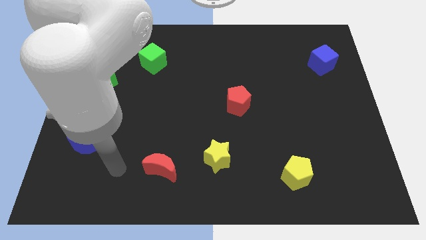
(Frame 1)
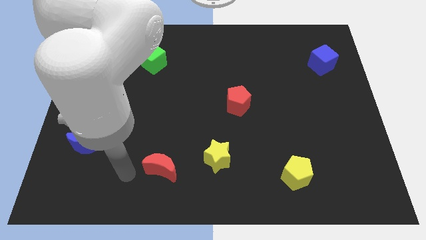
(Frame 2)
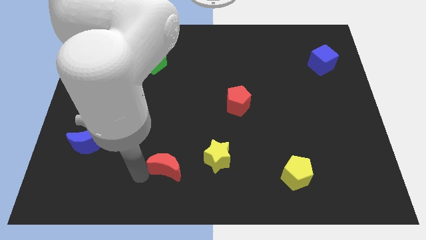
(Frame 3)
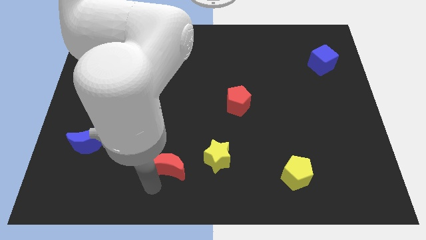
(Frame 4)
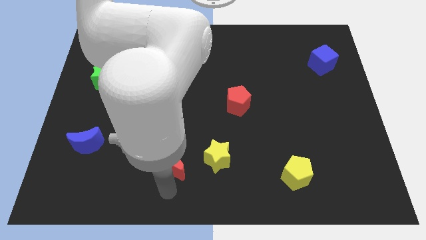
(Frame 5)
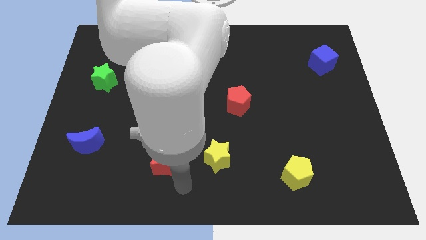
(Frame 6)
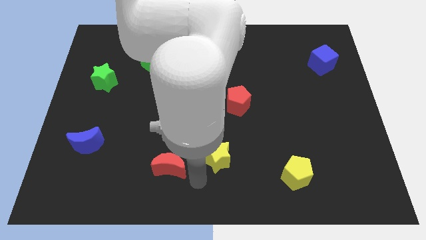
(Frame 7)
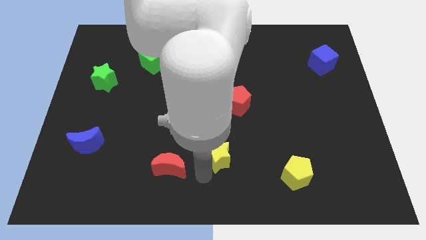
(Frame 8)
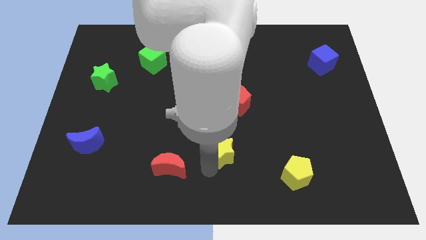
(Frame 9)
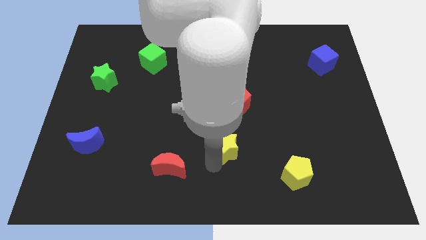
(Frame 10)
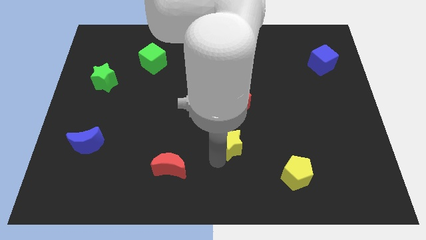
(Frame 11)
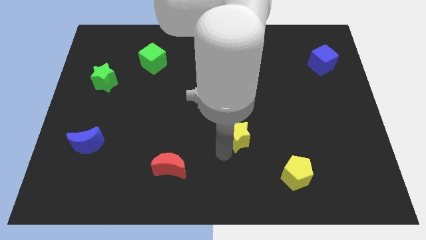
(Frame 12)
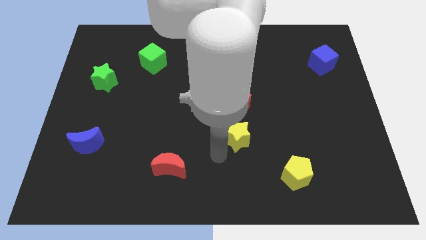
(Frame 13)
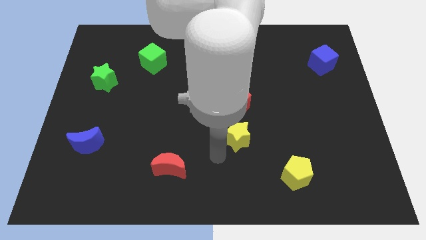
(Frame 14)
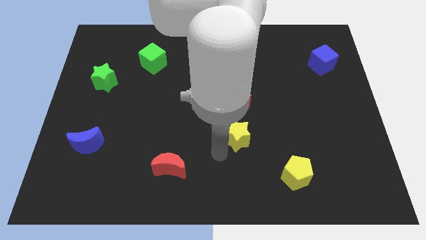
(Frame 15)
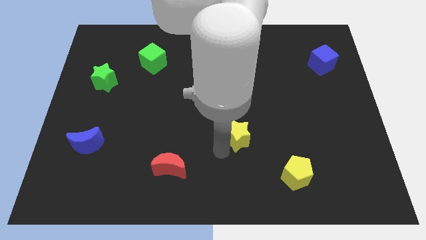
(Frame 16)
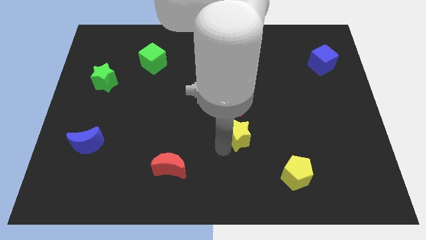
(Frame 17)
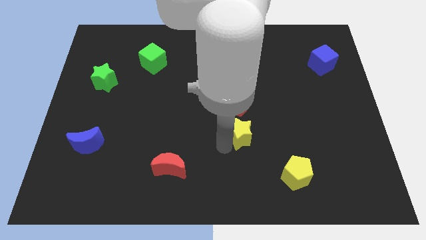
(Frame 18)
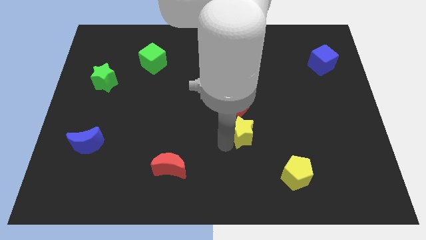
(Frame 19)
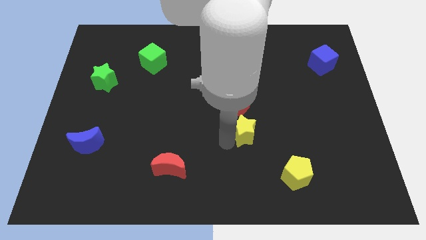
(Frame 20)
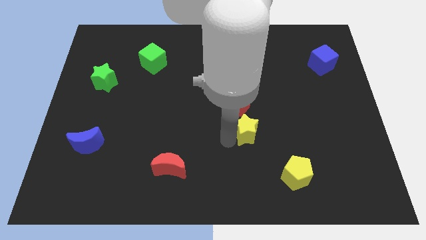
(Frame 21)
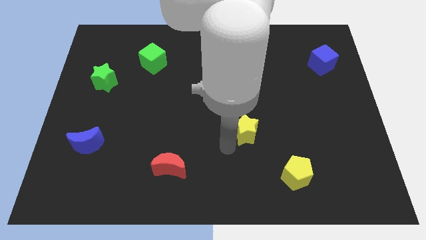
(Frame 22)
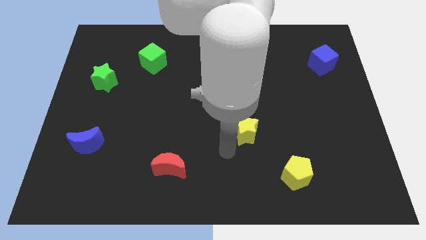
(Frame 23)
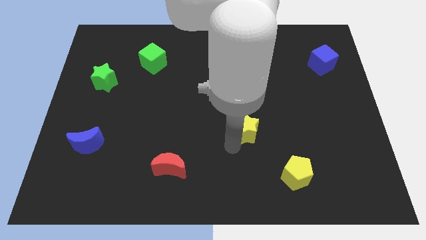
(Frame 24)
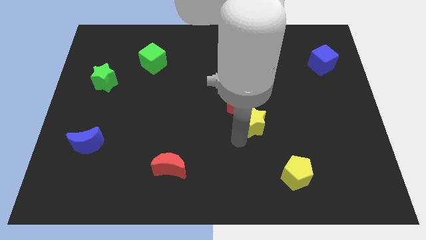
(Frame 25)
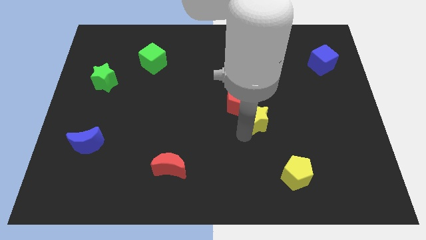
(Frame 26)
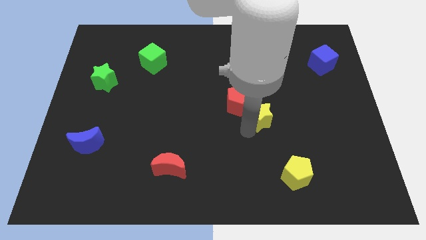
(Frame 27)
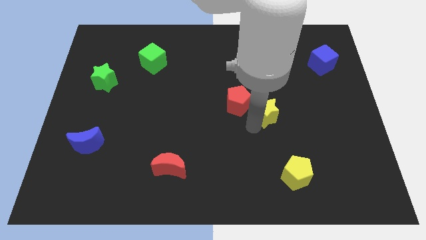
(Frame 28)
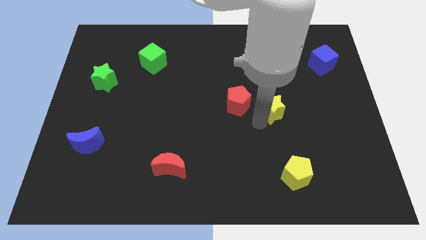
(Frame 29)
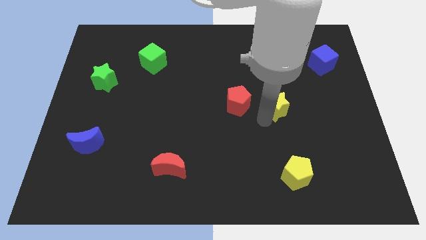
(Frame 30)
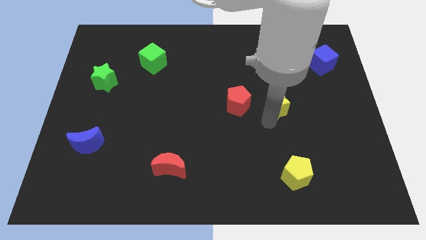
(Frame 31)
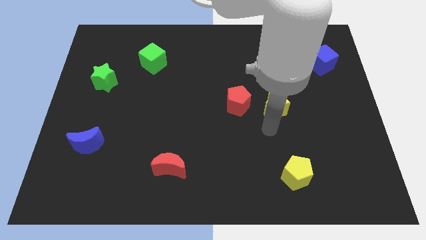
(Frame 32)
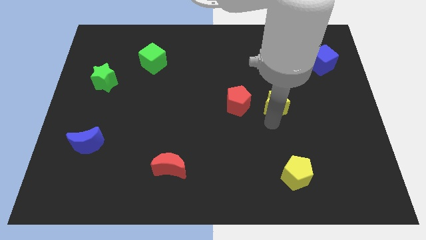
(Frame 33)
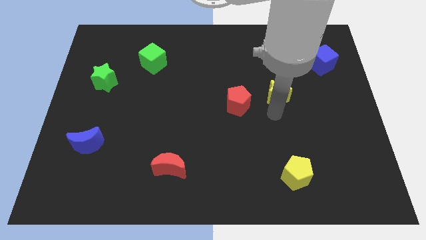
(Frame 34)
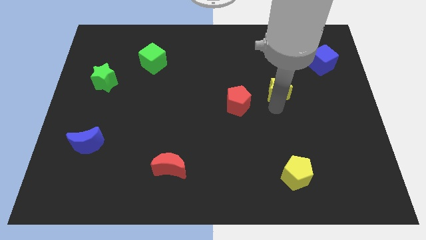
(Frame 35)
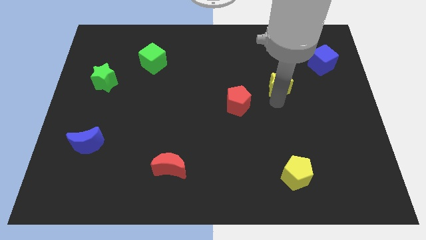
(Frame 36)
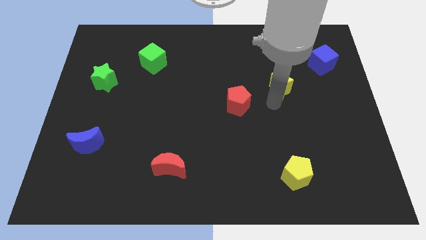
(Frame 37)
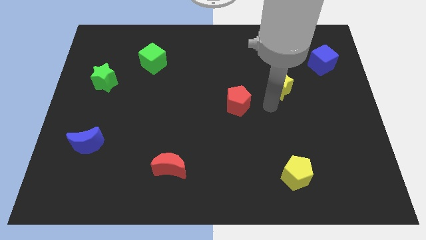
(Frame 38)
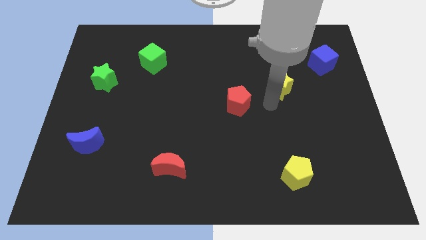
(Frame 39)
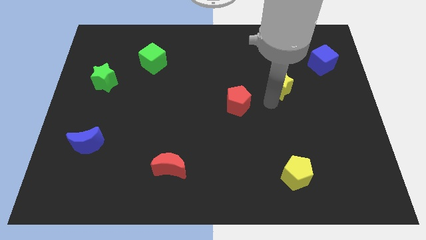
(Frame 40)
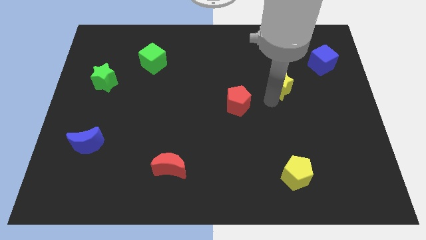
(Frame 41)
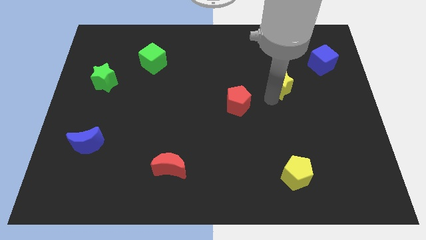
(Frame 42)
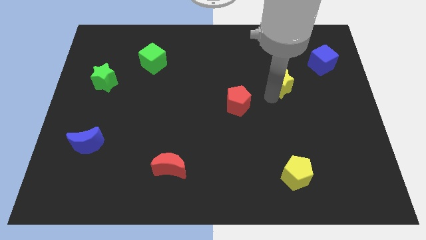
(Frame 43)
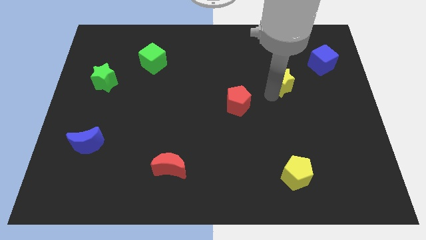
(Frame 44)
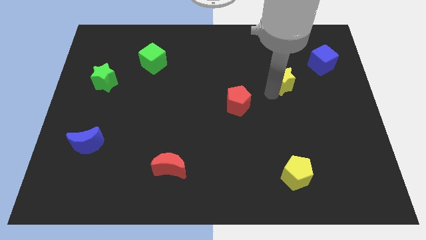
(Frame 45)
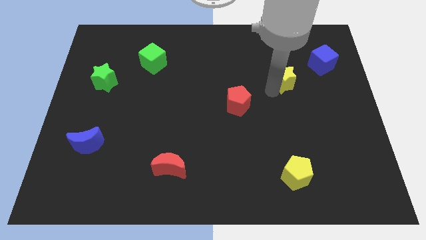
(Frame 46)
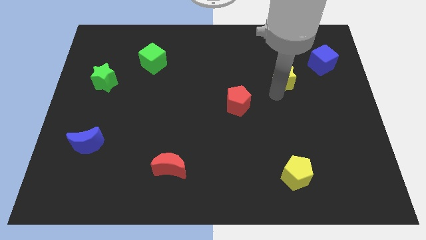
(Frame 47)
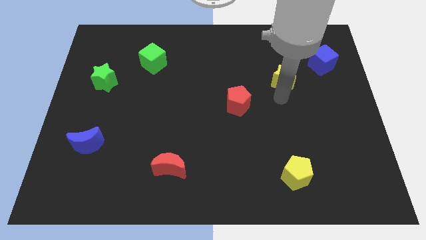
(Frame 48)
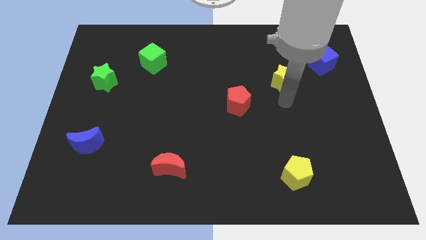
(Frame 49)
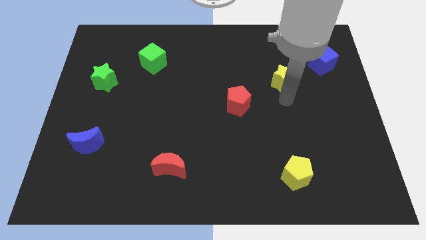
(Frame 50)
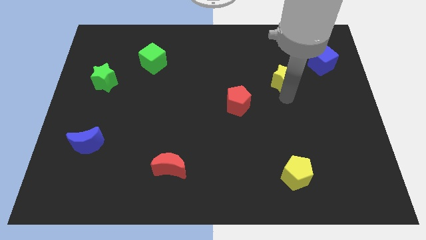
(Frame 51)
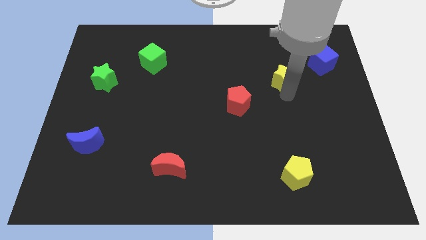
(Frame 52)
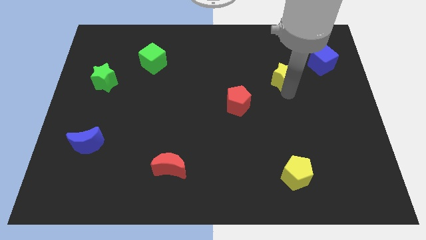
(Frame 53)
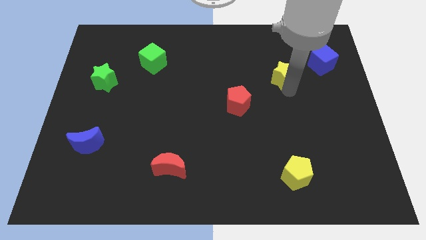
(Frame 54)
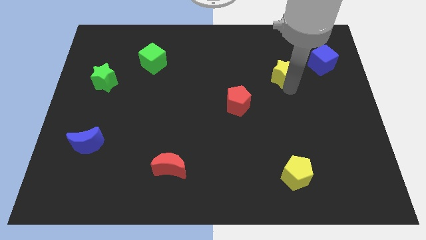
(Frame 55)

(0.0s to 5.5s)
slide the yellow star left of the blue cube

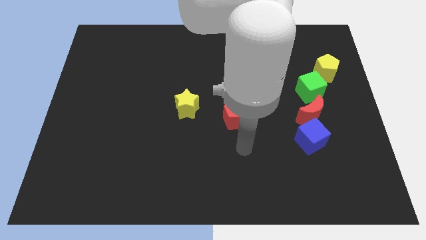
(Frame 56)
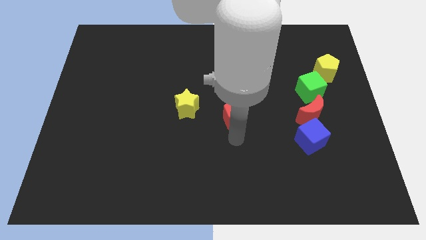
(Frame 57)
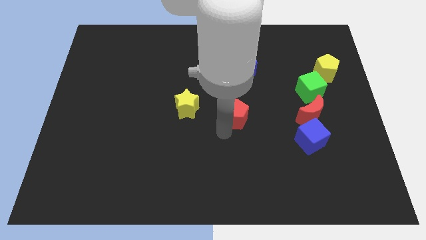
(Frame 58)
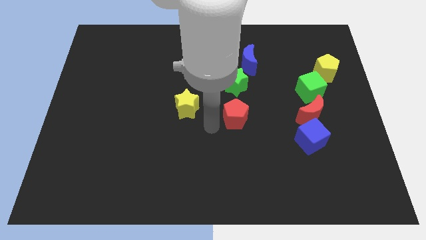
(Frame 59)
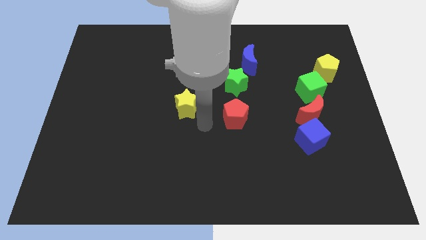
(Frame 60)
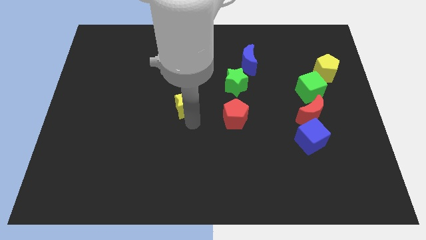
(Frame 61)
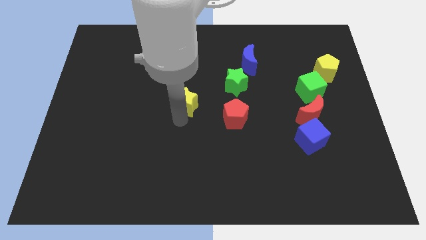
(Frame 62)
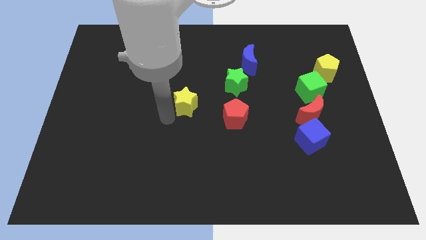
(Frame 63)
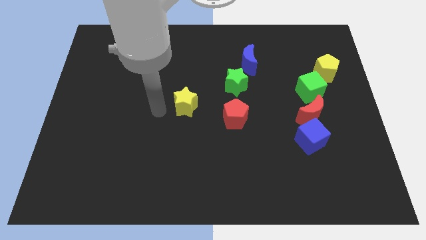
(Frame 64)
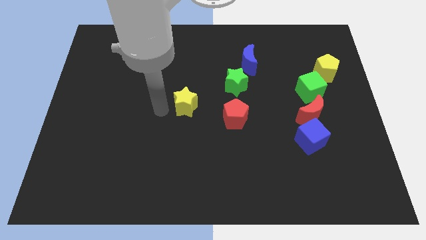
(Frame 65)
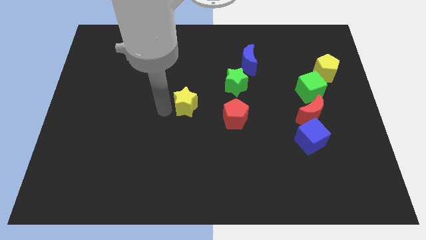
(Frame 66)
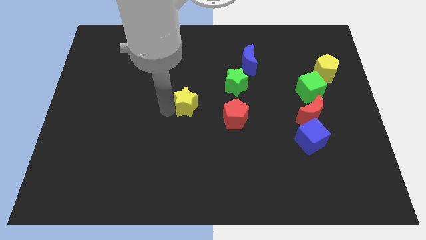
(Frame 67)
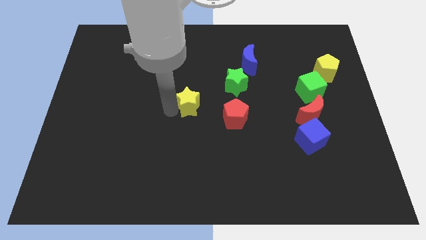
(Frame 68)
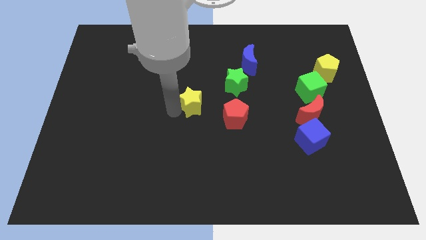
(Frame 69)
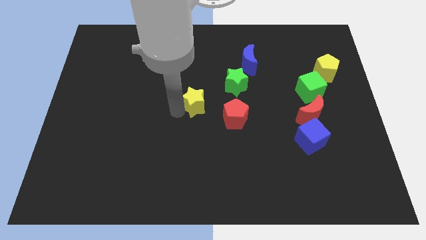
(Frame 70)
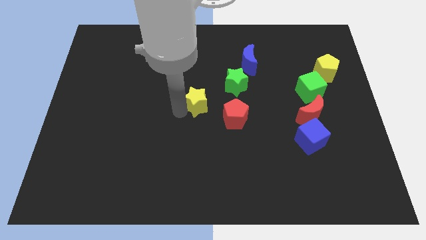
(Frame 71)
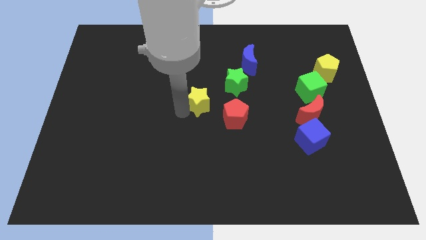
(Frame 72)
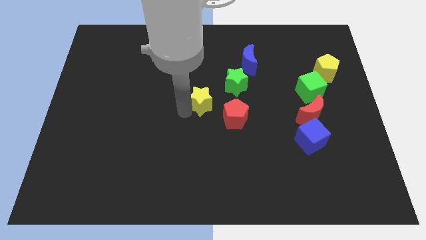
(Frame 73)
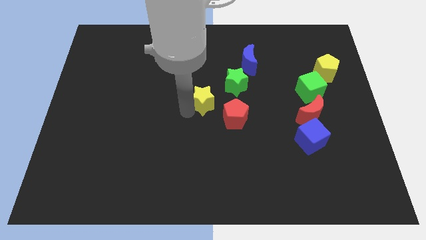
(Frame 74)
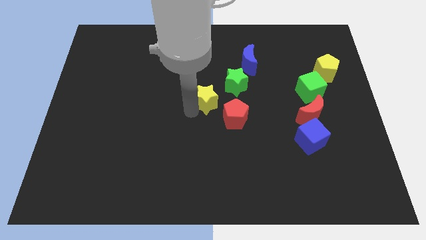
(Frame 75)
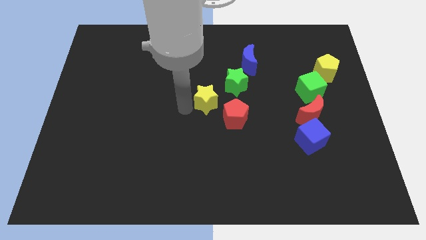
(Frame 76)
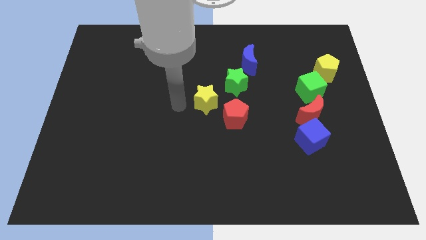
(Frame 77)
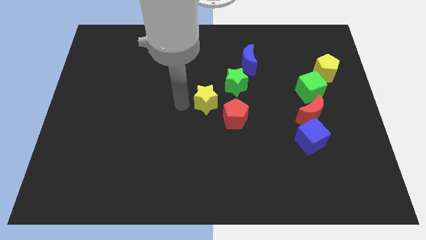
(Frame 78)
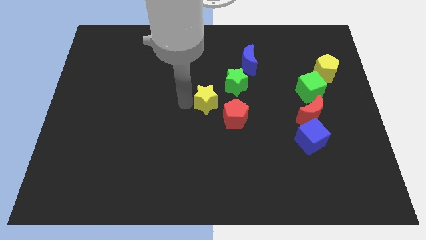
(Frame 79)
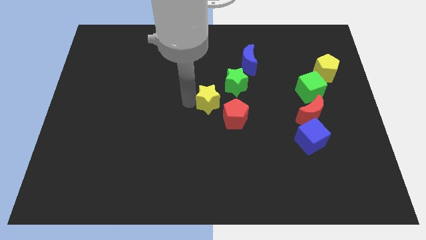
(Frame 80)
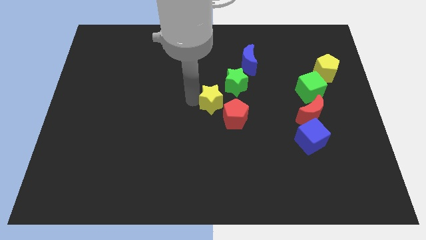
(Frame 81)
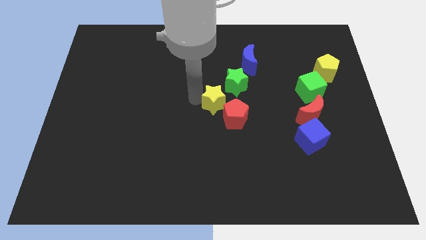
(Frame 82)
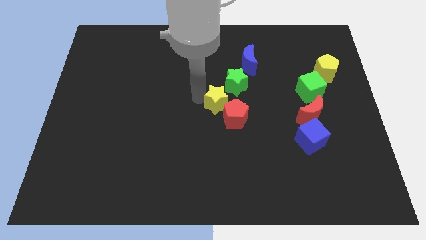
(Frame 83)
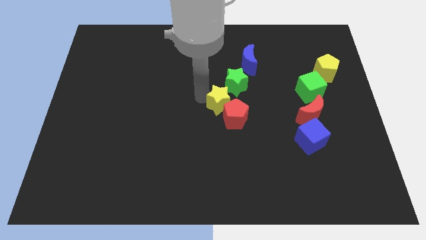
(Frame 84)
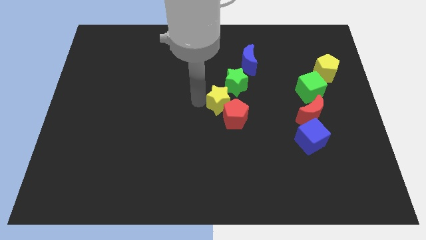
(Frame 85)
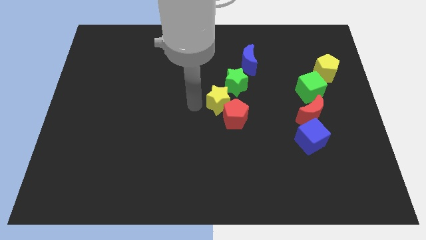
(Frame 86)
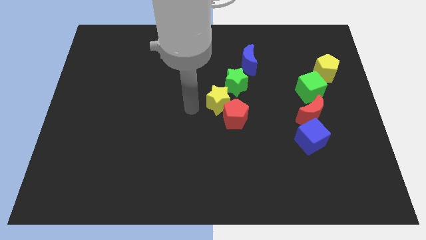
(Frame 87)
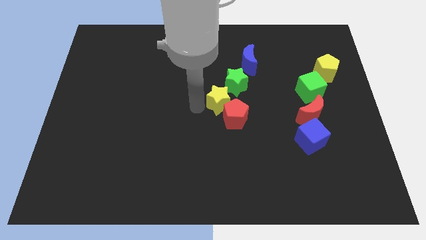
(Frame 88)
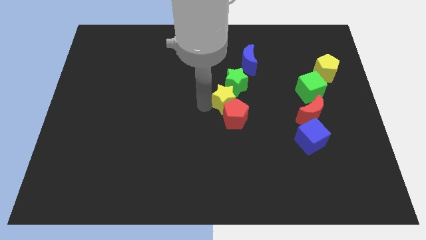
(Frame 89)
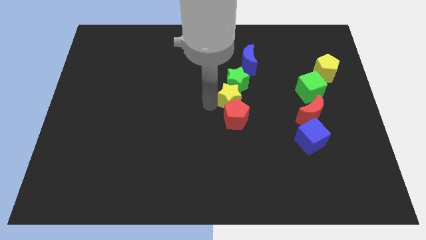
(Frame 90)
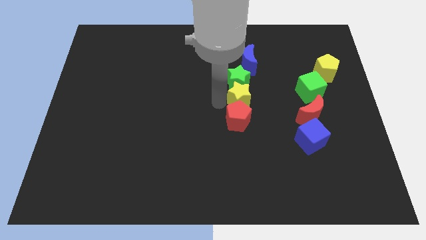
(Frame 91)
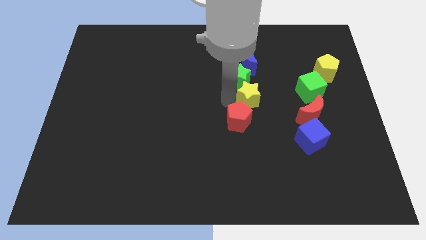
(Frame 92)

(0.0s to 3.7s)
put the yellow star to the left side of the green cube
